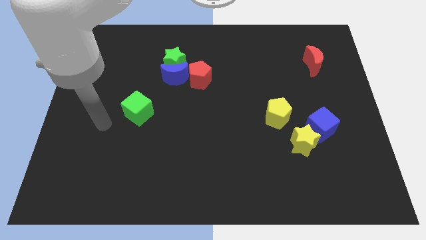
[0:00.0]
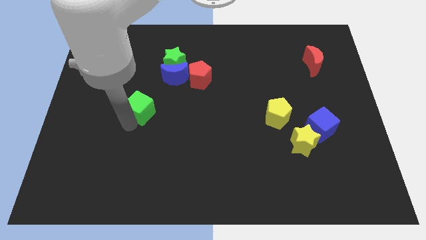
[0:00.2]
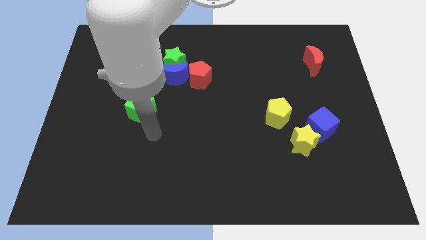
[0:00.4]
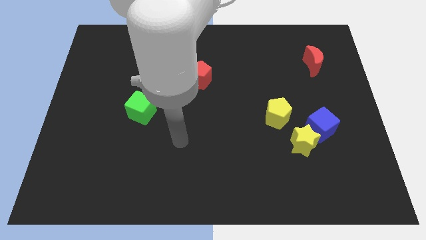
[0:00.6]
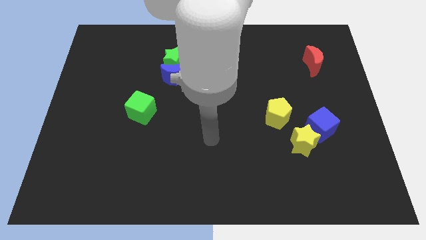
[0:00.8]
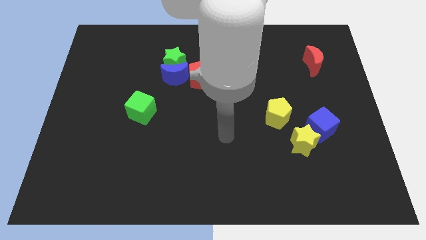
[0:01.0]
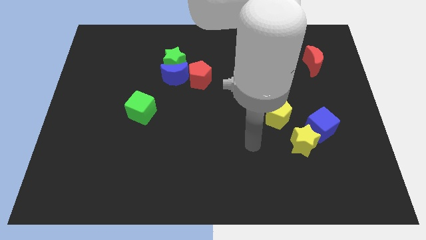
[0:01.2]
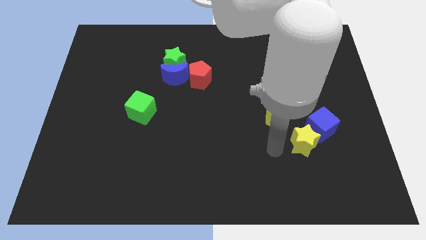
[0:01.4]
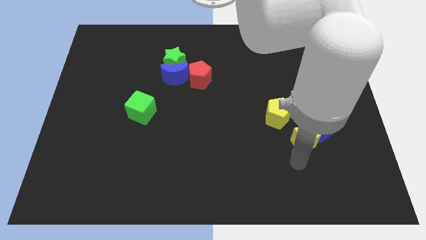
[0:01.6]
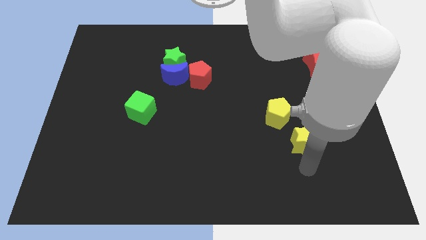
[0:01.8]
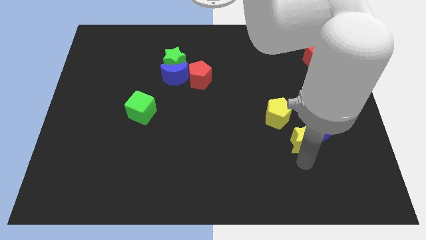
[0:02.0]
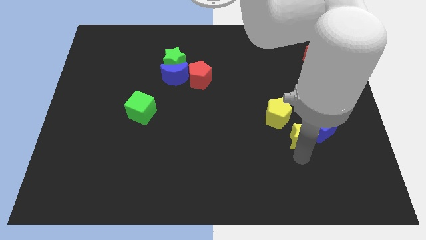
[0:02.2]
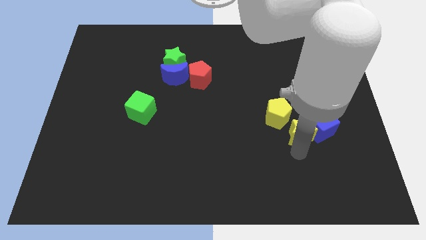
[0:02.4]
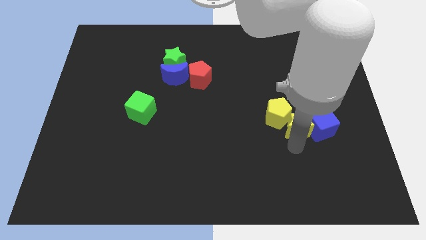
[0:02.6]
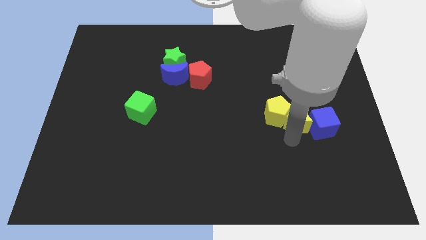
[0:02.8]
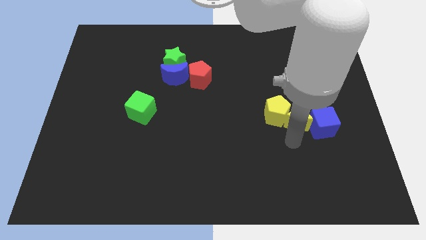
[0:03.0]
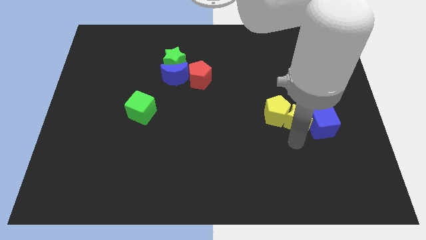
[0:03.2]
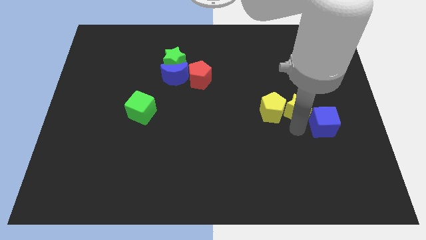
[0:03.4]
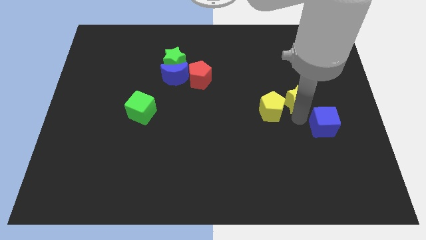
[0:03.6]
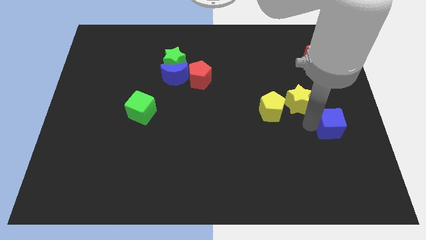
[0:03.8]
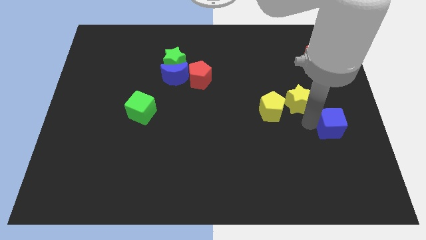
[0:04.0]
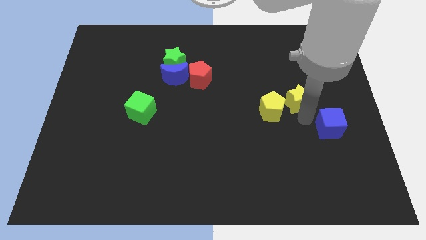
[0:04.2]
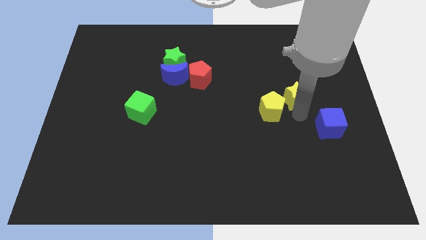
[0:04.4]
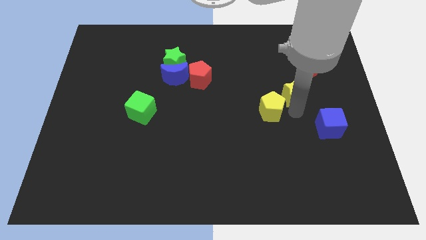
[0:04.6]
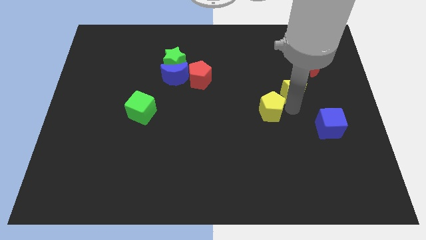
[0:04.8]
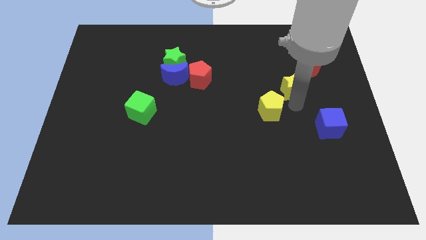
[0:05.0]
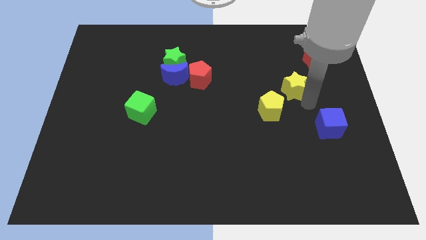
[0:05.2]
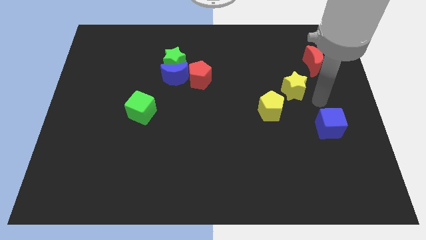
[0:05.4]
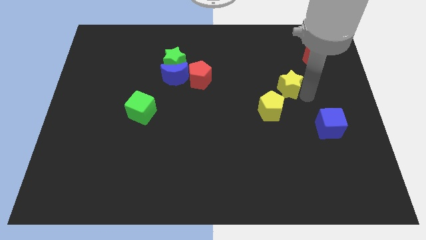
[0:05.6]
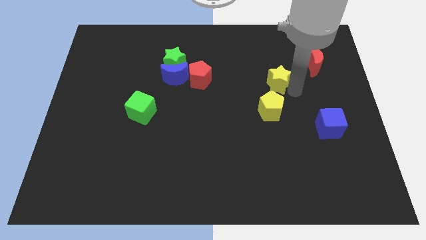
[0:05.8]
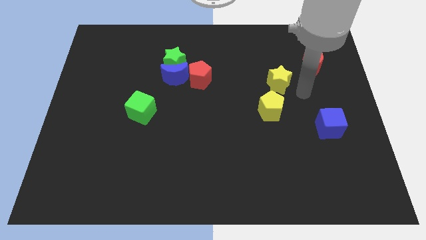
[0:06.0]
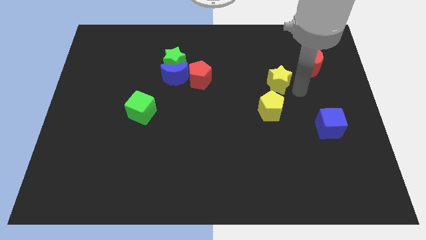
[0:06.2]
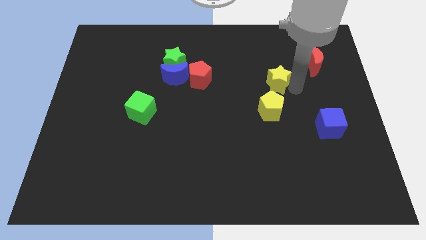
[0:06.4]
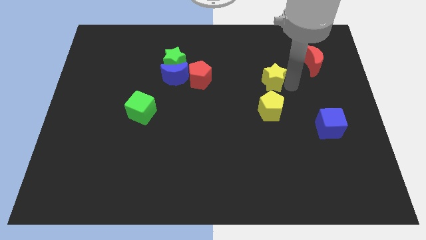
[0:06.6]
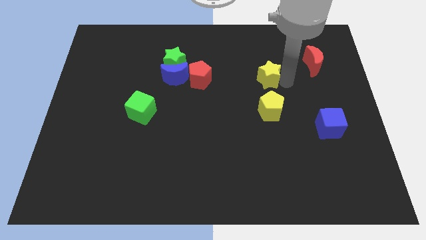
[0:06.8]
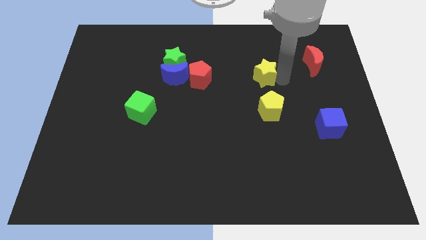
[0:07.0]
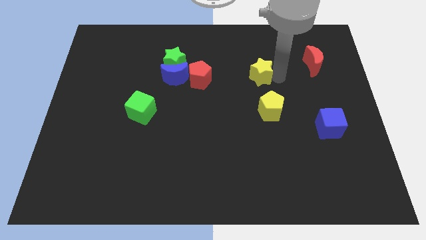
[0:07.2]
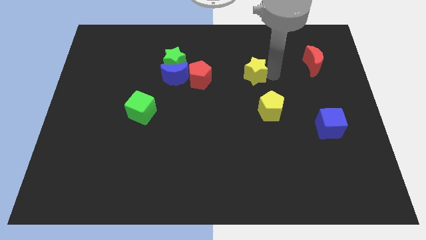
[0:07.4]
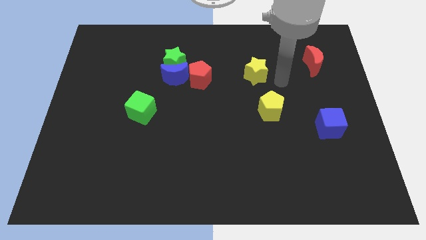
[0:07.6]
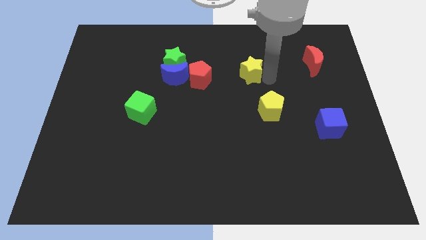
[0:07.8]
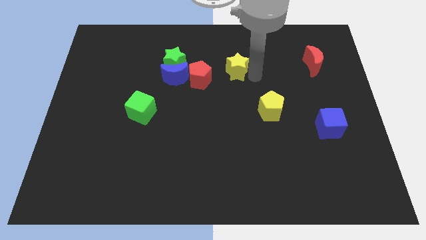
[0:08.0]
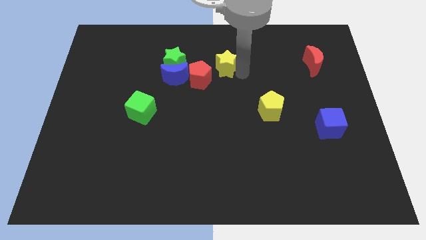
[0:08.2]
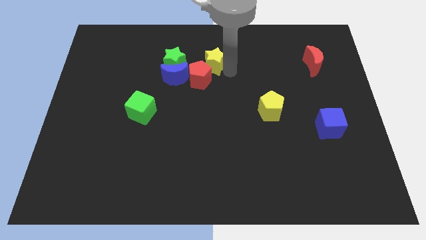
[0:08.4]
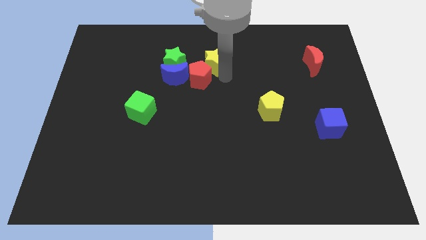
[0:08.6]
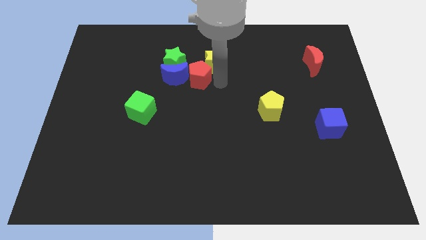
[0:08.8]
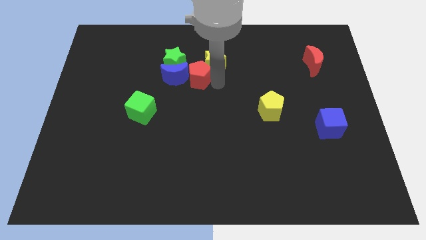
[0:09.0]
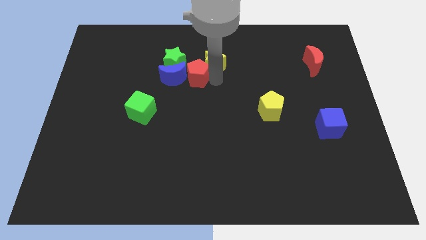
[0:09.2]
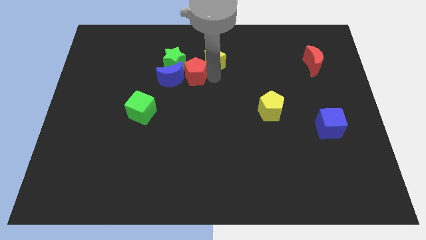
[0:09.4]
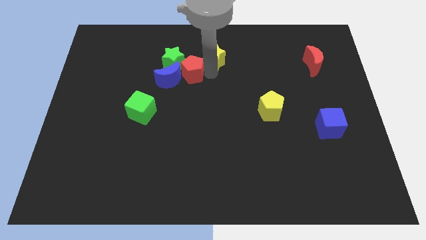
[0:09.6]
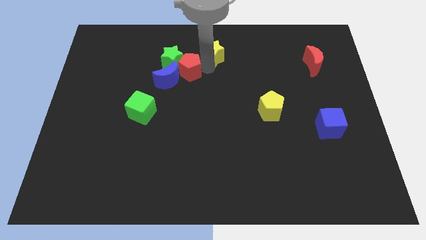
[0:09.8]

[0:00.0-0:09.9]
slide the yellow star to the top side

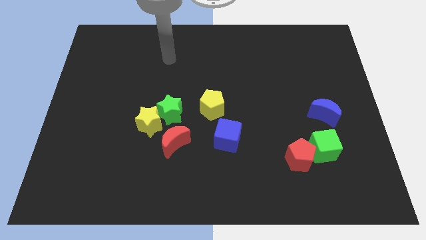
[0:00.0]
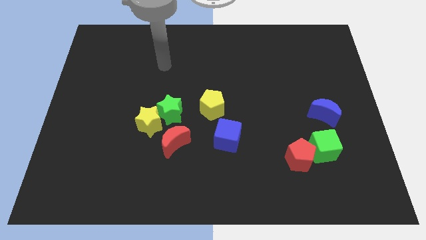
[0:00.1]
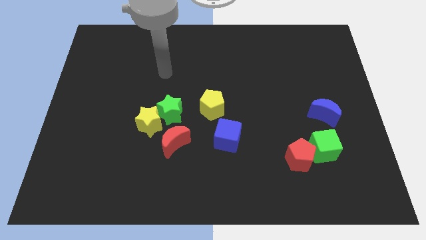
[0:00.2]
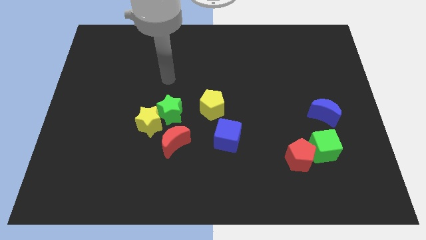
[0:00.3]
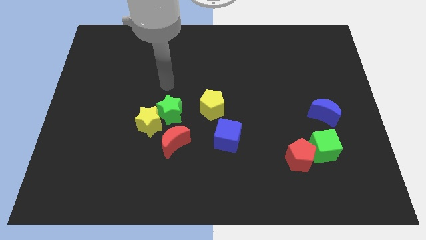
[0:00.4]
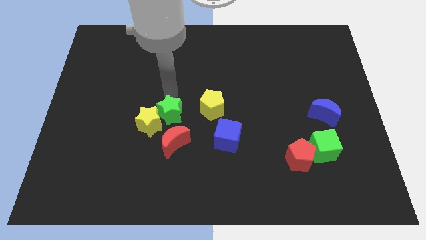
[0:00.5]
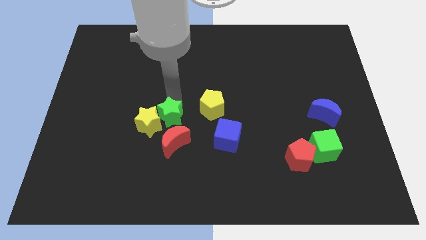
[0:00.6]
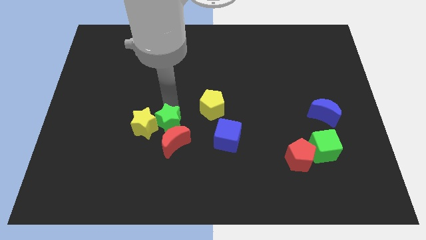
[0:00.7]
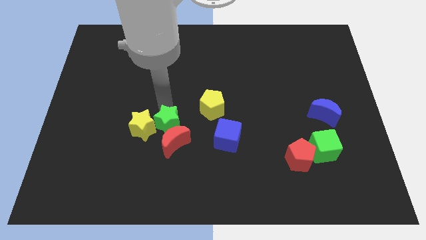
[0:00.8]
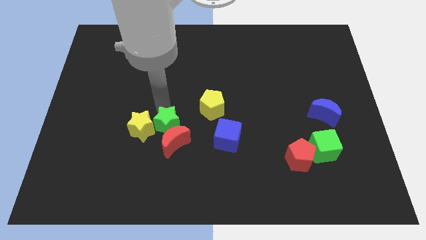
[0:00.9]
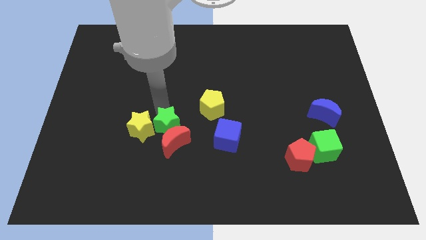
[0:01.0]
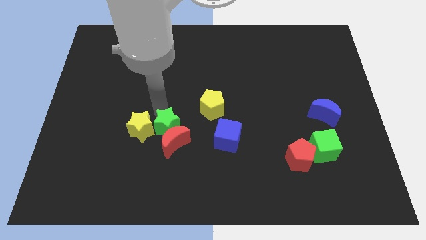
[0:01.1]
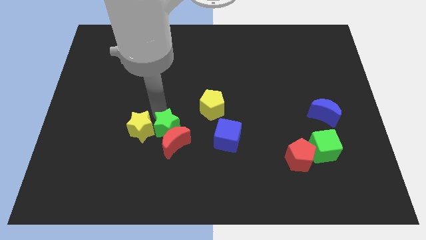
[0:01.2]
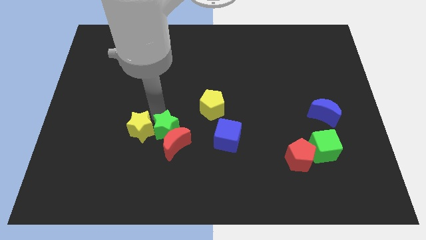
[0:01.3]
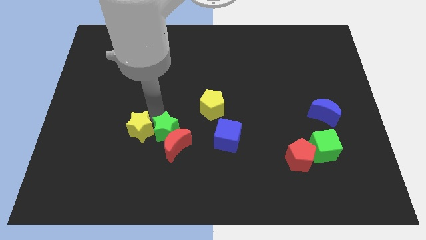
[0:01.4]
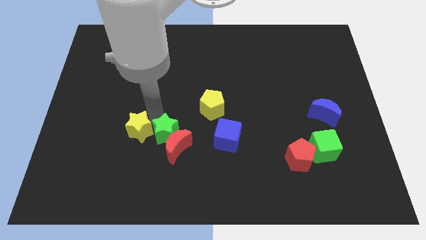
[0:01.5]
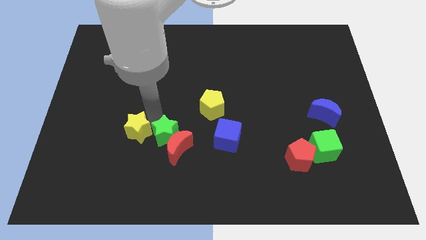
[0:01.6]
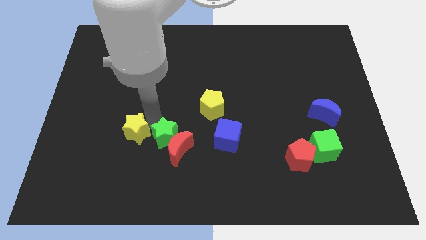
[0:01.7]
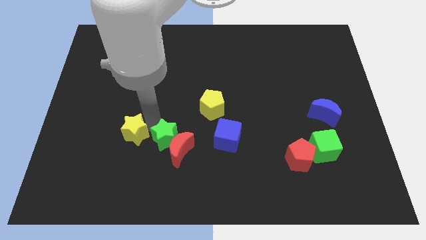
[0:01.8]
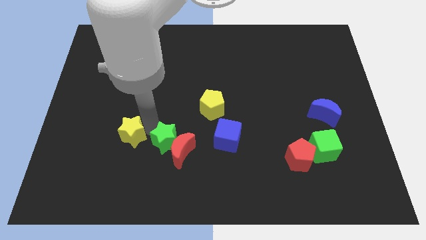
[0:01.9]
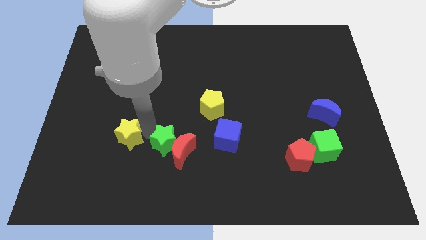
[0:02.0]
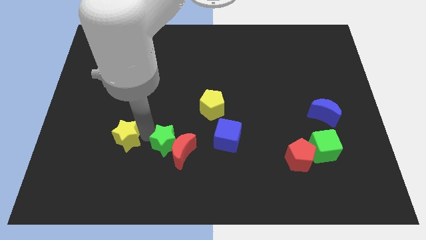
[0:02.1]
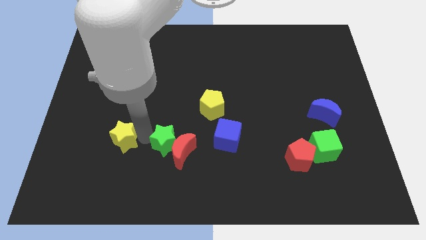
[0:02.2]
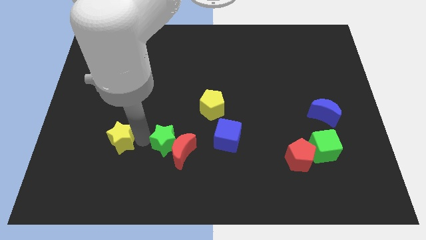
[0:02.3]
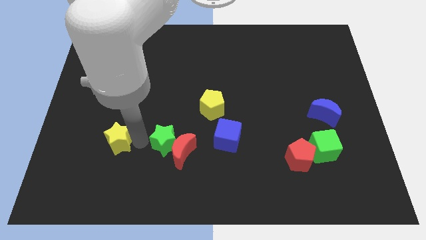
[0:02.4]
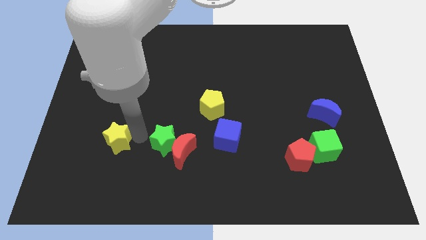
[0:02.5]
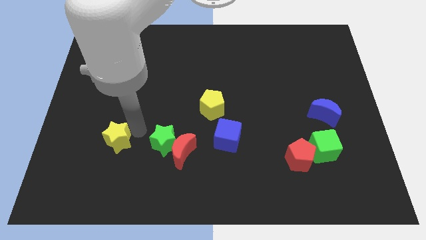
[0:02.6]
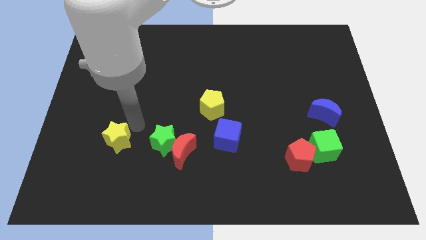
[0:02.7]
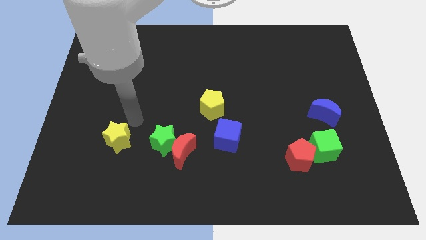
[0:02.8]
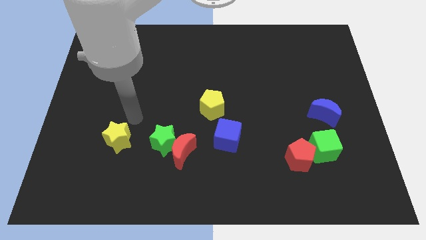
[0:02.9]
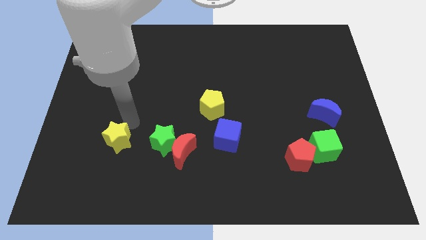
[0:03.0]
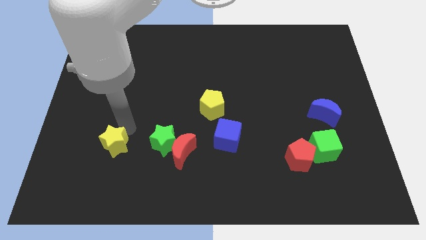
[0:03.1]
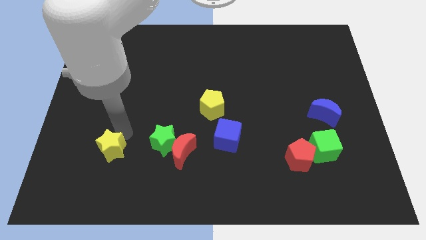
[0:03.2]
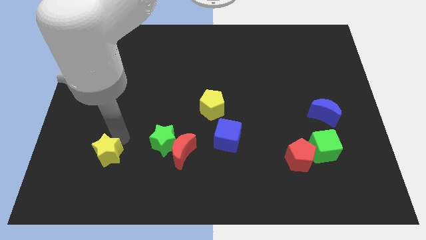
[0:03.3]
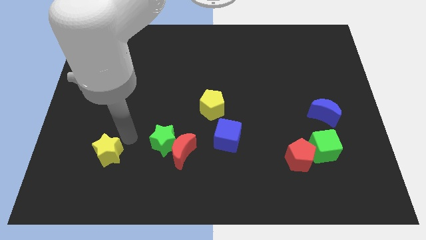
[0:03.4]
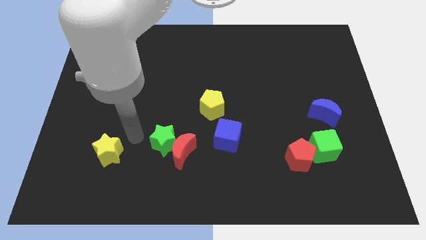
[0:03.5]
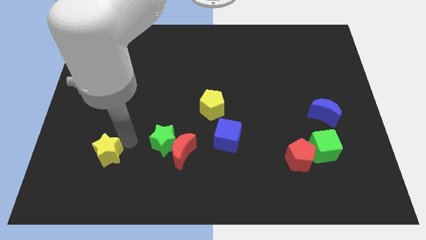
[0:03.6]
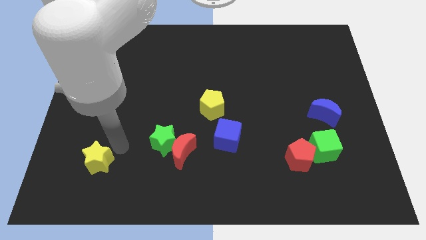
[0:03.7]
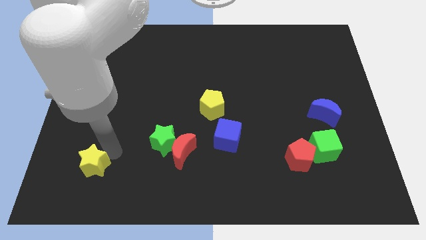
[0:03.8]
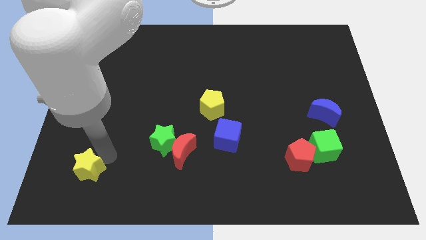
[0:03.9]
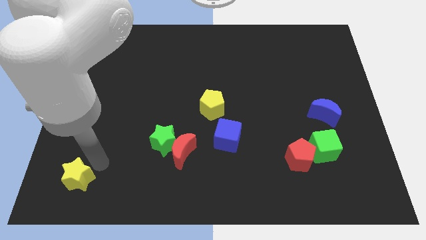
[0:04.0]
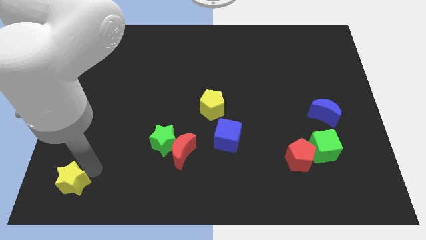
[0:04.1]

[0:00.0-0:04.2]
slide the yellow star to the bottom left corner
